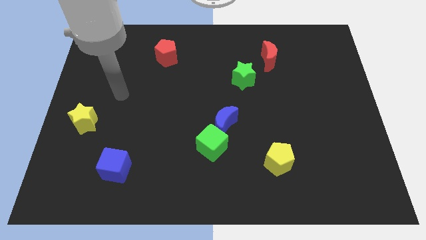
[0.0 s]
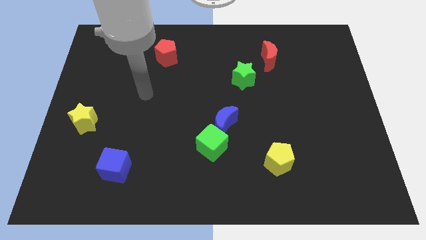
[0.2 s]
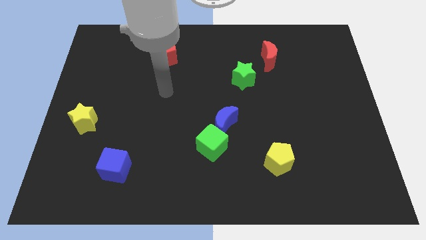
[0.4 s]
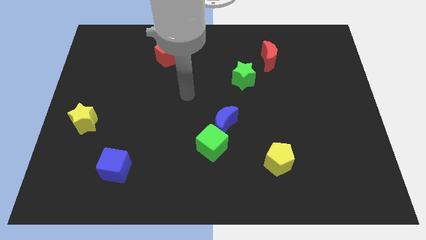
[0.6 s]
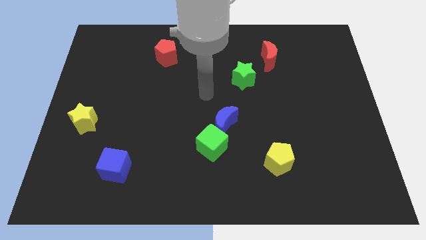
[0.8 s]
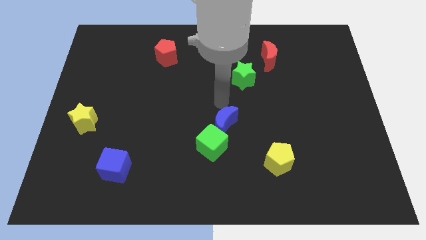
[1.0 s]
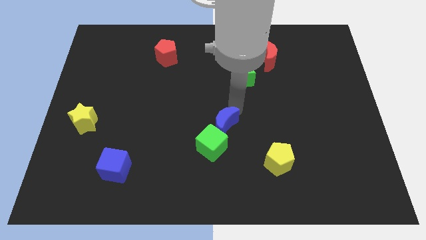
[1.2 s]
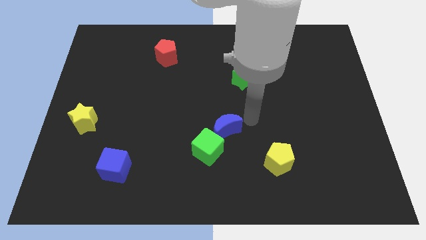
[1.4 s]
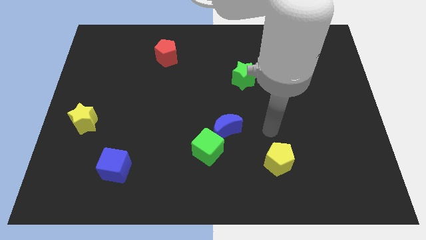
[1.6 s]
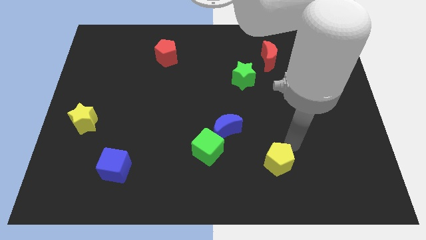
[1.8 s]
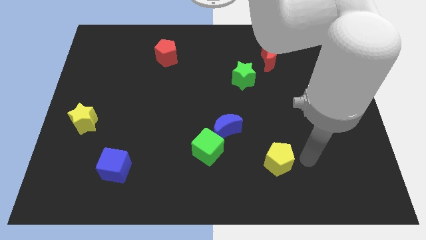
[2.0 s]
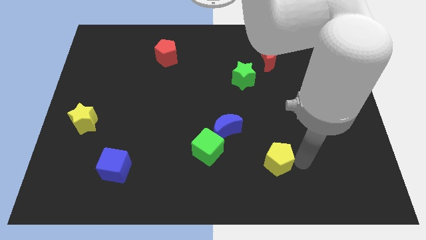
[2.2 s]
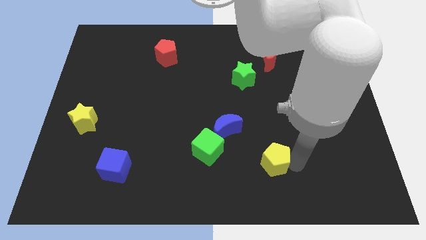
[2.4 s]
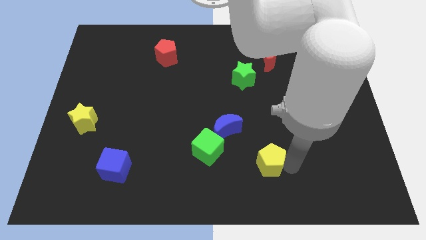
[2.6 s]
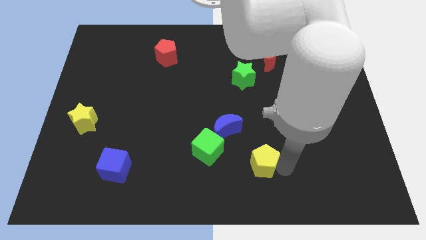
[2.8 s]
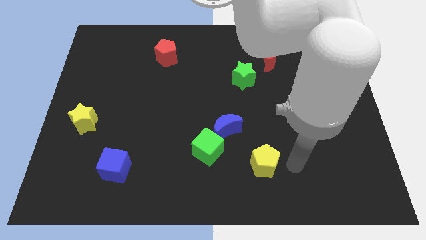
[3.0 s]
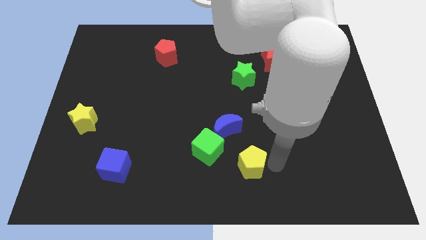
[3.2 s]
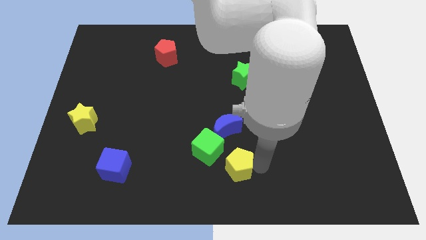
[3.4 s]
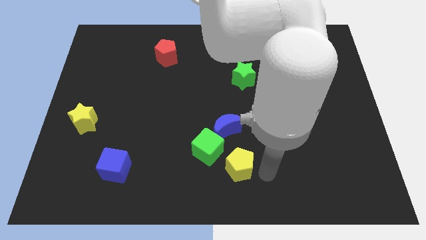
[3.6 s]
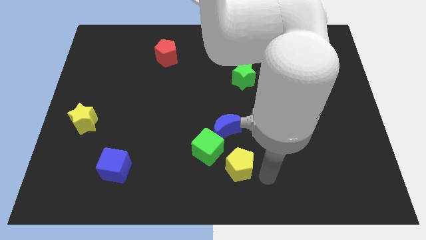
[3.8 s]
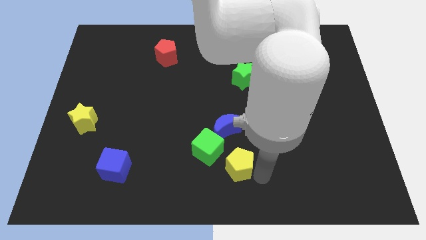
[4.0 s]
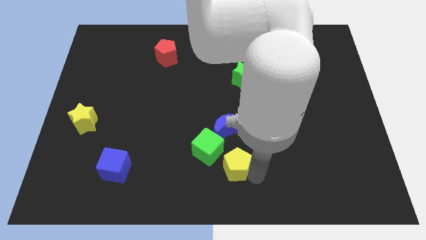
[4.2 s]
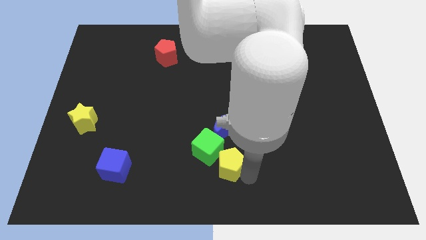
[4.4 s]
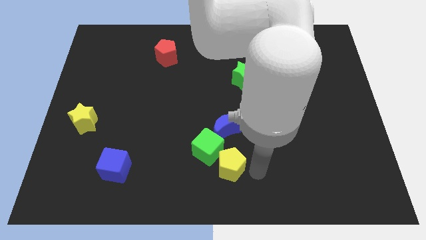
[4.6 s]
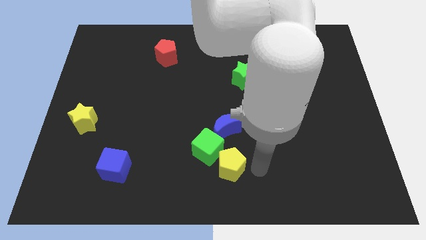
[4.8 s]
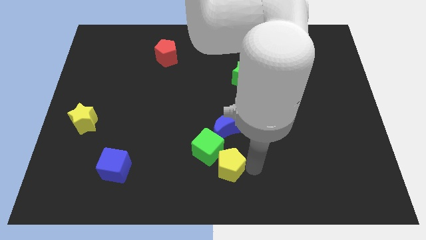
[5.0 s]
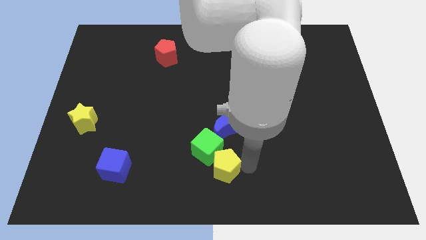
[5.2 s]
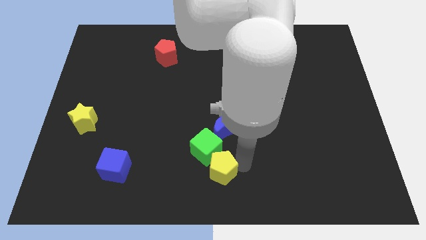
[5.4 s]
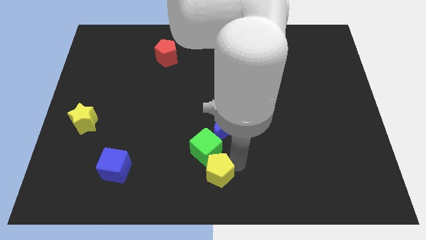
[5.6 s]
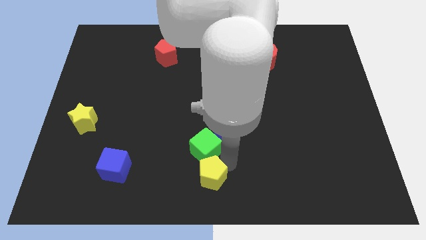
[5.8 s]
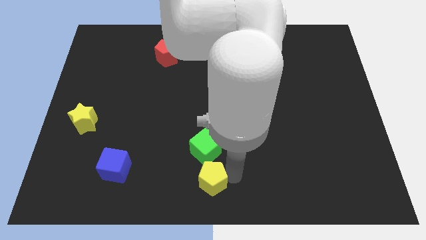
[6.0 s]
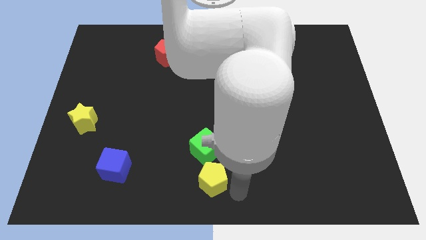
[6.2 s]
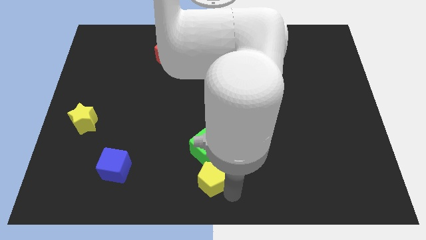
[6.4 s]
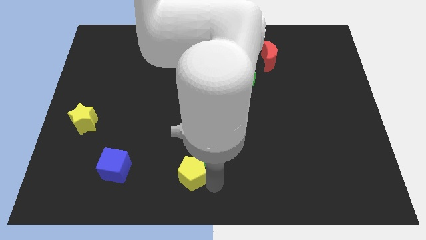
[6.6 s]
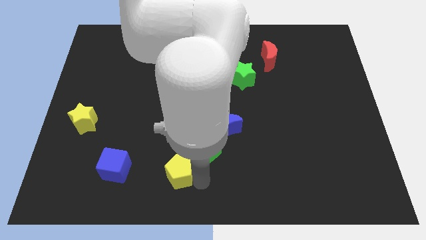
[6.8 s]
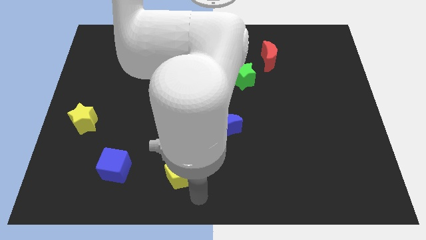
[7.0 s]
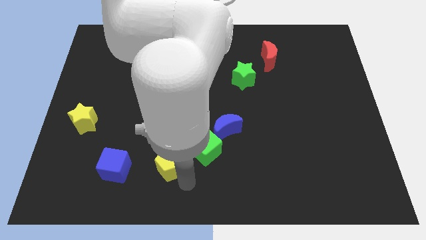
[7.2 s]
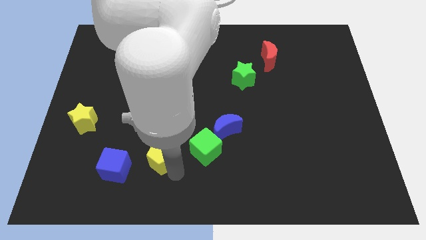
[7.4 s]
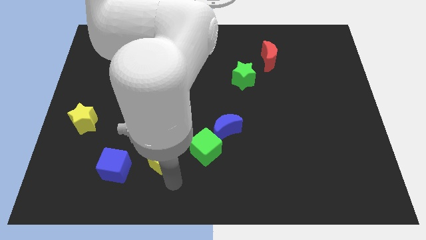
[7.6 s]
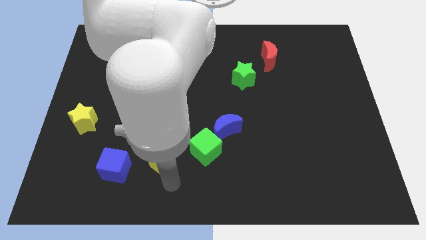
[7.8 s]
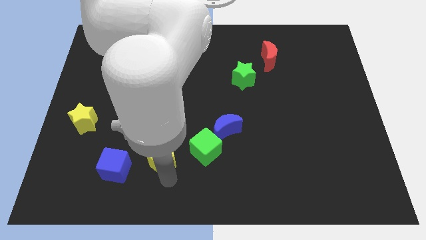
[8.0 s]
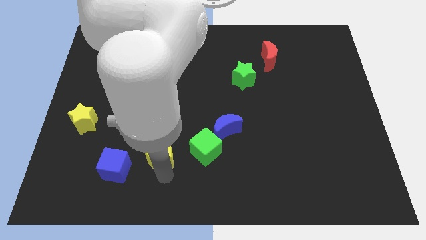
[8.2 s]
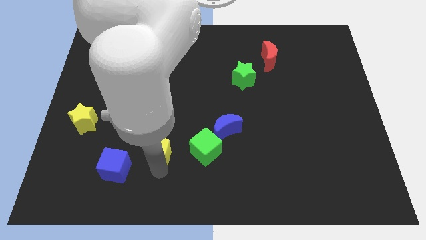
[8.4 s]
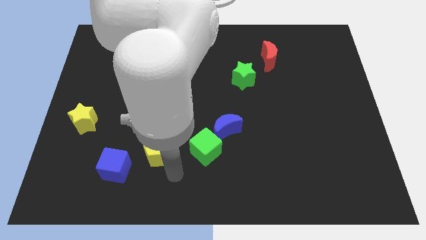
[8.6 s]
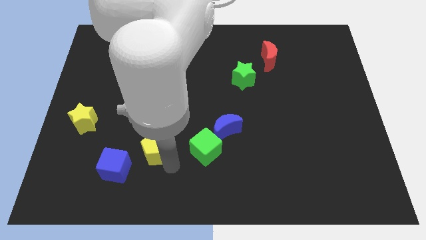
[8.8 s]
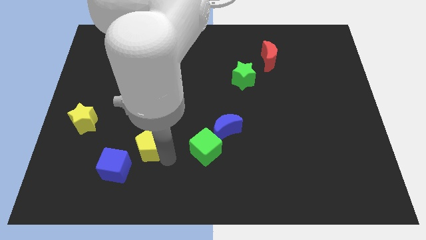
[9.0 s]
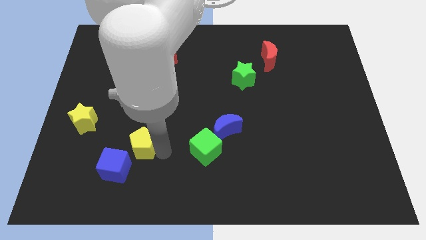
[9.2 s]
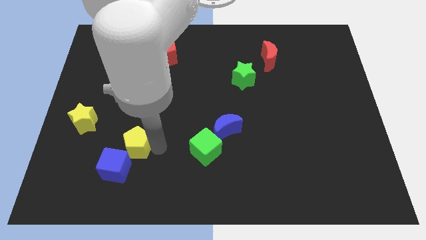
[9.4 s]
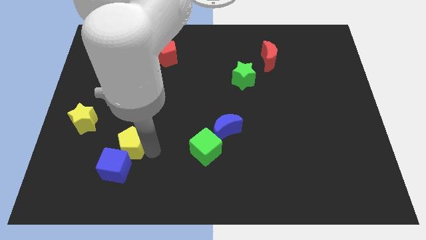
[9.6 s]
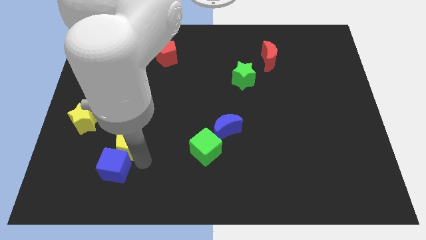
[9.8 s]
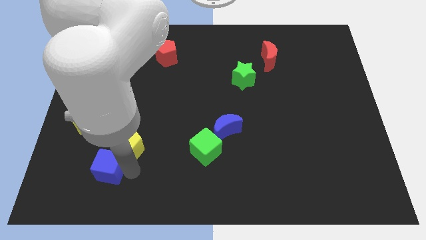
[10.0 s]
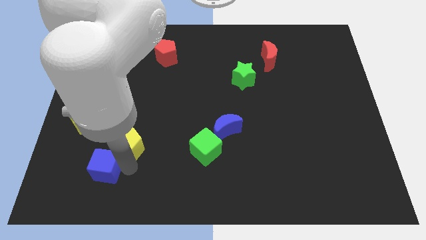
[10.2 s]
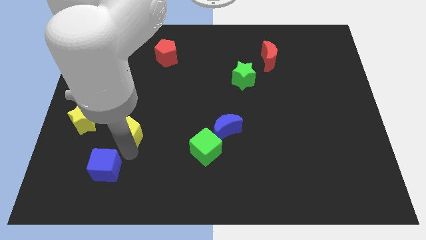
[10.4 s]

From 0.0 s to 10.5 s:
push the yellow pentagon just right of the yellow star

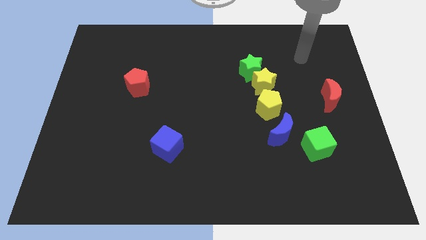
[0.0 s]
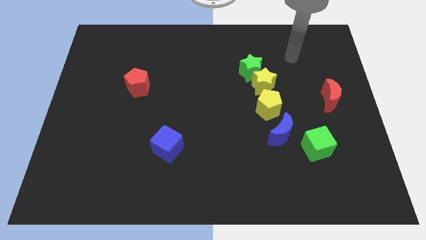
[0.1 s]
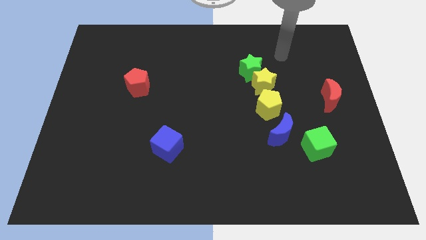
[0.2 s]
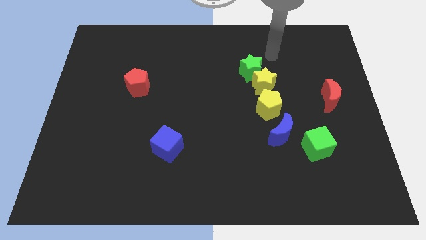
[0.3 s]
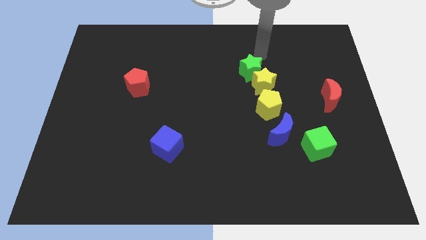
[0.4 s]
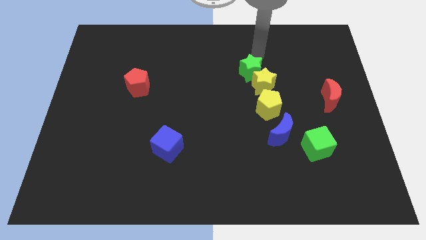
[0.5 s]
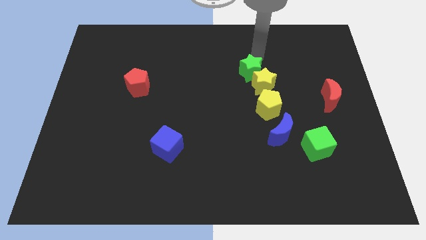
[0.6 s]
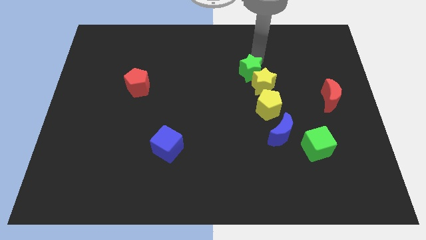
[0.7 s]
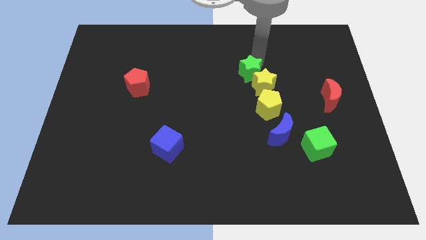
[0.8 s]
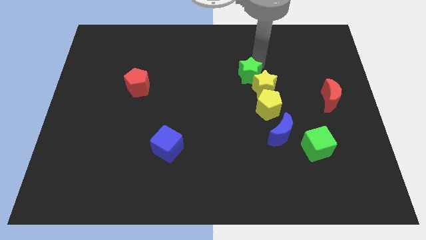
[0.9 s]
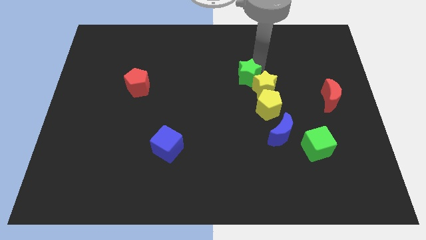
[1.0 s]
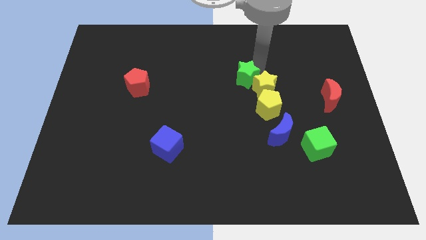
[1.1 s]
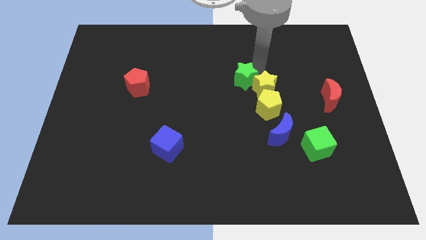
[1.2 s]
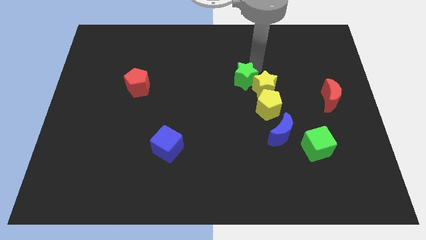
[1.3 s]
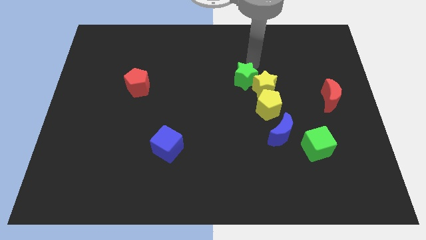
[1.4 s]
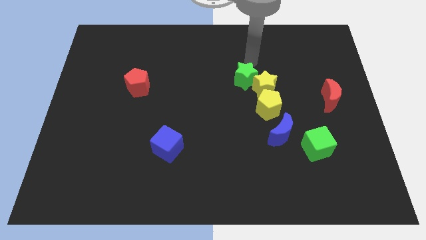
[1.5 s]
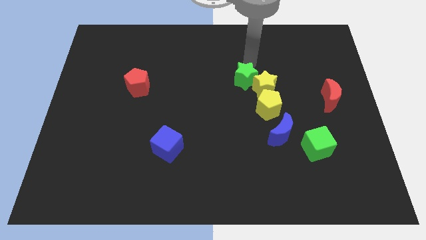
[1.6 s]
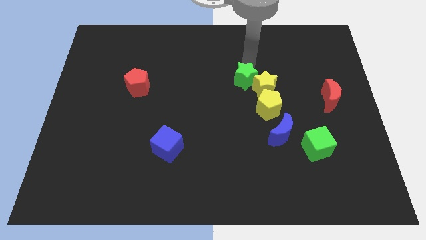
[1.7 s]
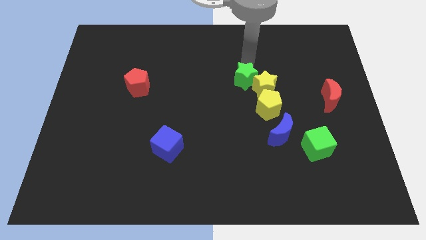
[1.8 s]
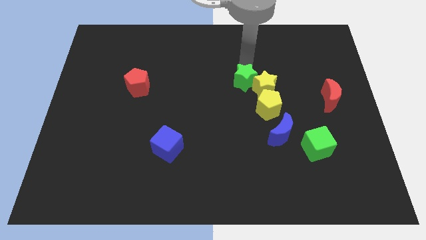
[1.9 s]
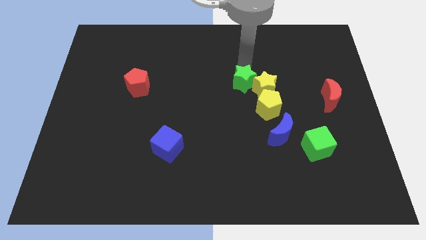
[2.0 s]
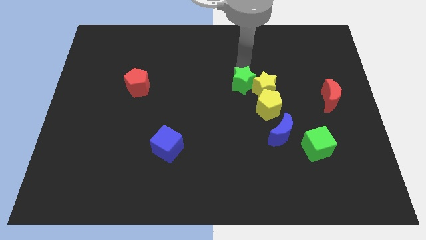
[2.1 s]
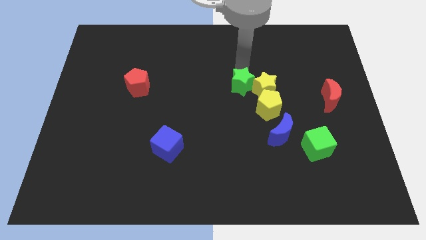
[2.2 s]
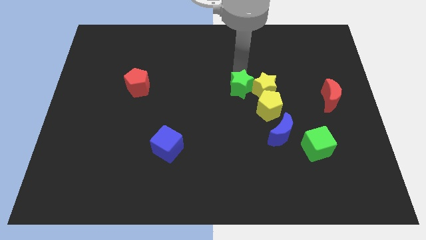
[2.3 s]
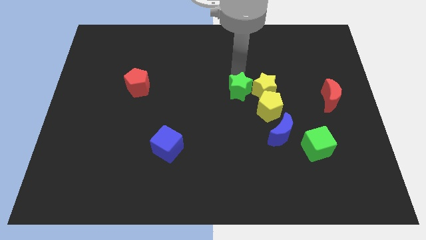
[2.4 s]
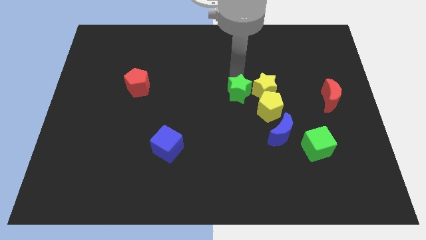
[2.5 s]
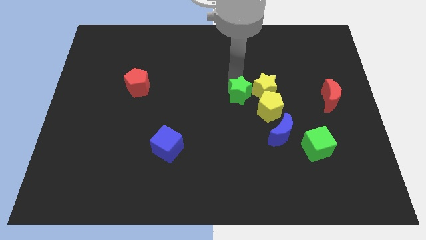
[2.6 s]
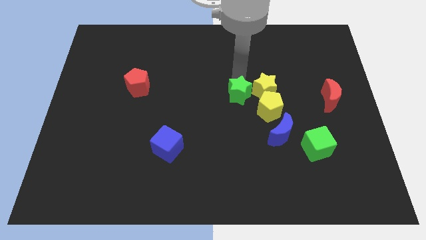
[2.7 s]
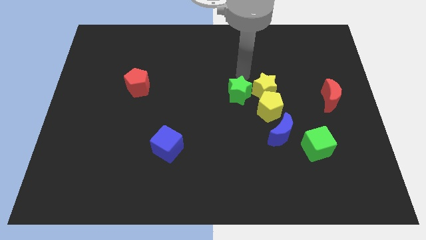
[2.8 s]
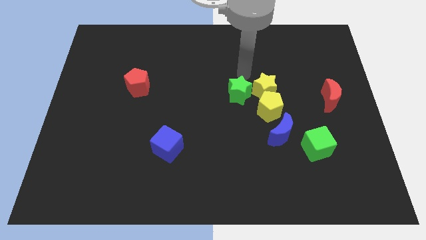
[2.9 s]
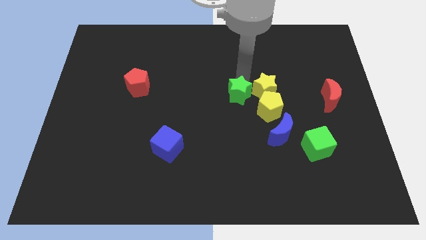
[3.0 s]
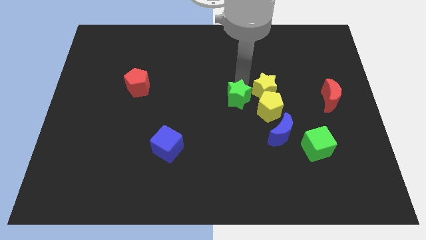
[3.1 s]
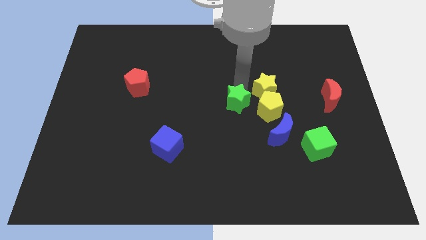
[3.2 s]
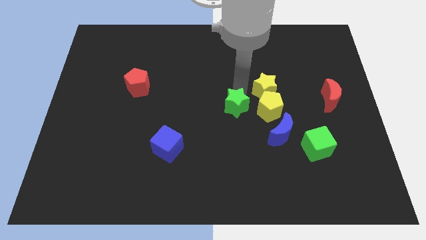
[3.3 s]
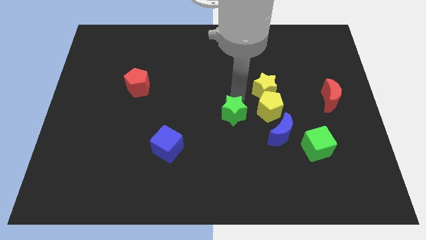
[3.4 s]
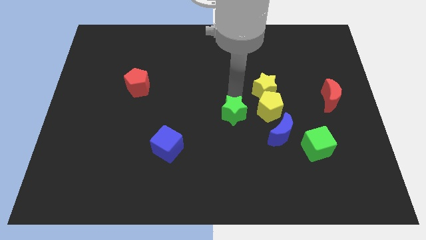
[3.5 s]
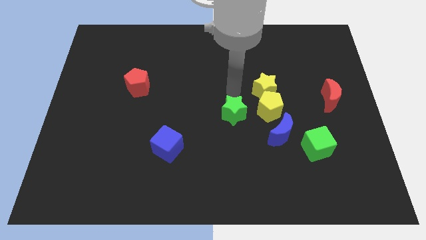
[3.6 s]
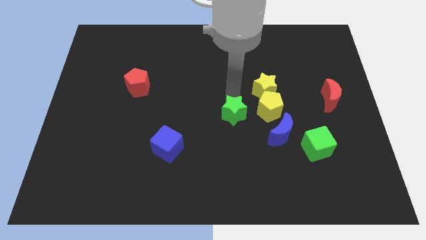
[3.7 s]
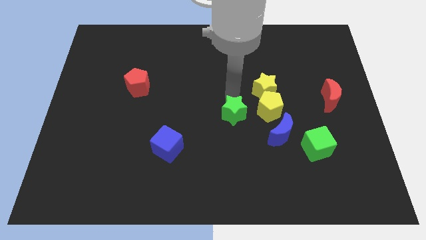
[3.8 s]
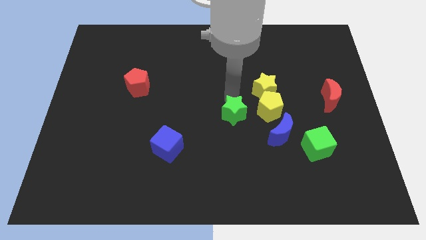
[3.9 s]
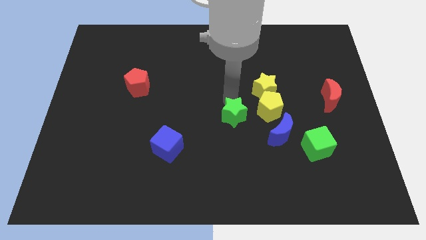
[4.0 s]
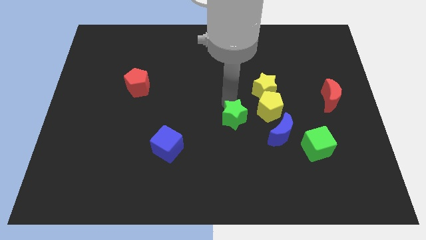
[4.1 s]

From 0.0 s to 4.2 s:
put the green star to the left side of the blue moon
